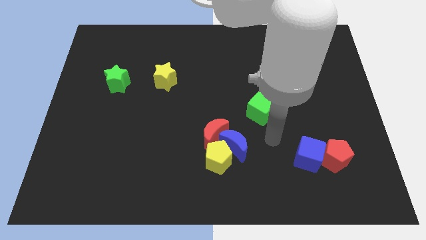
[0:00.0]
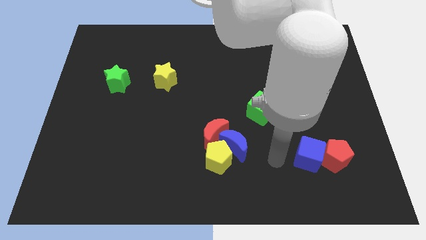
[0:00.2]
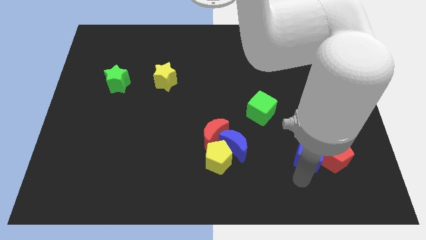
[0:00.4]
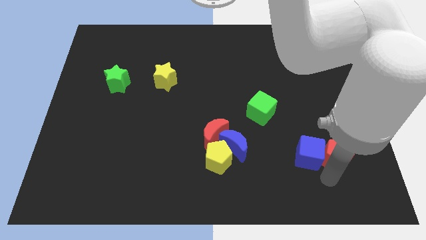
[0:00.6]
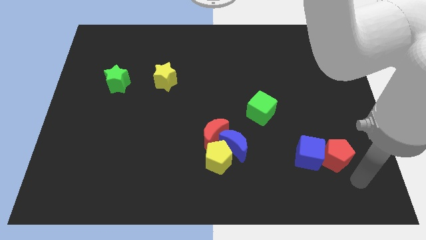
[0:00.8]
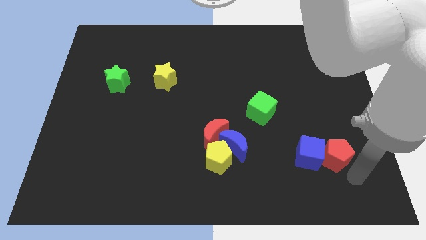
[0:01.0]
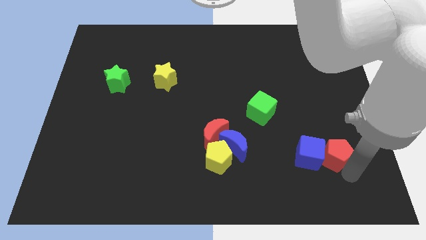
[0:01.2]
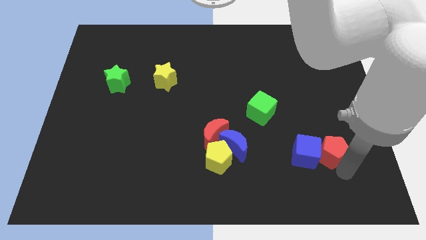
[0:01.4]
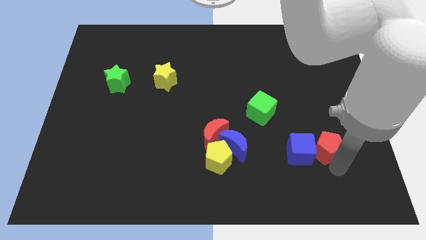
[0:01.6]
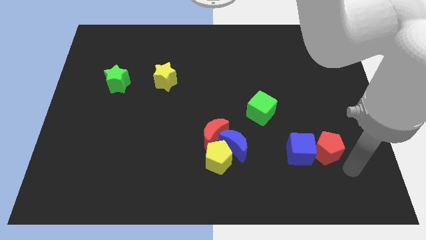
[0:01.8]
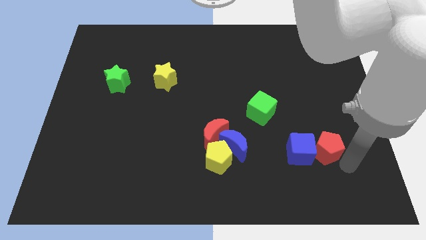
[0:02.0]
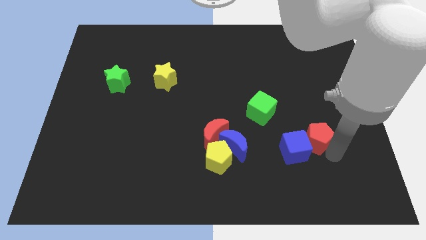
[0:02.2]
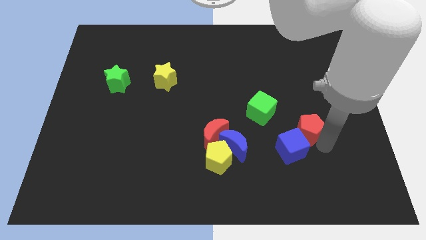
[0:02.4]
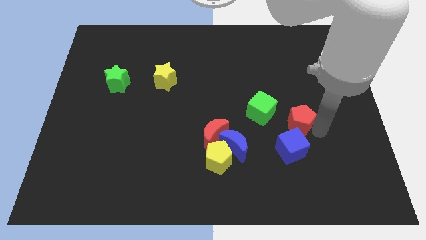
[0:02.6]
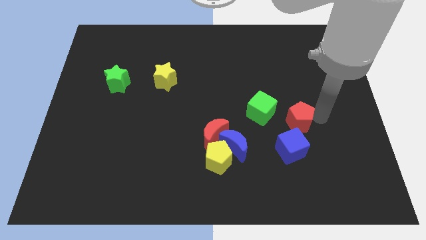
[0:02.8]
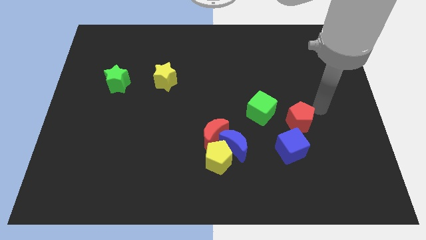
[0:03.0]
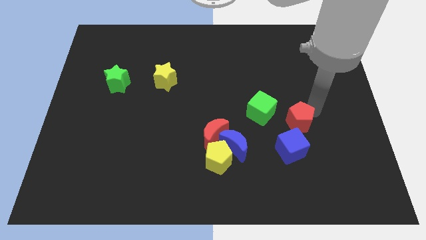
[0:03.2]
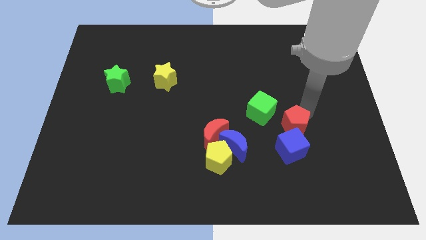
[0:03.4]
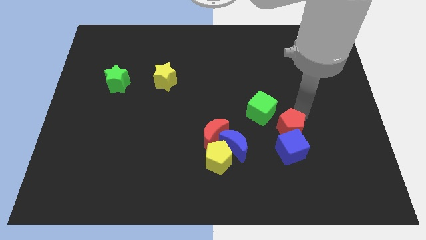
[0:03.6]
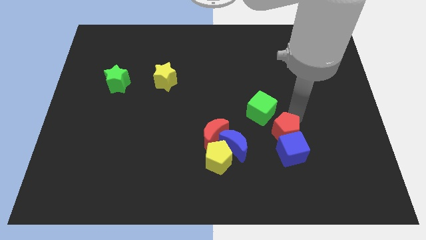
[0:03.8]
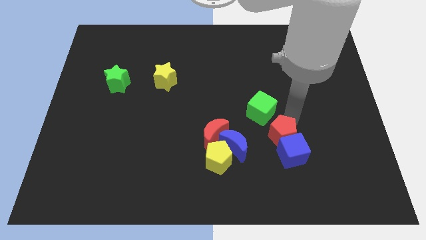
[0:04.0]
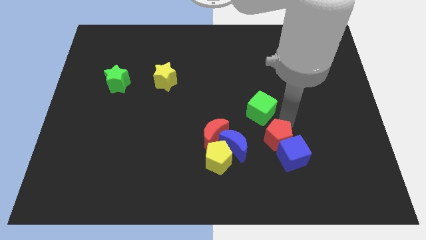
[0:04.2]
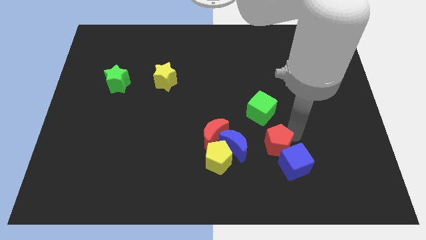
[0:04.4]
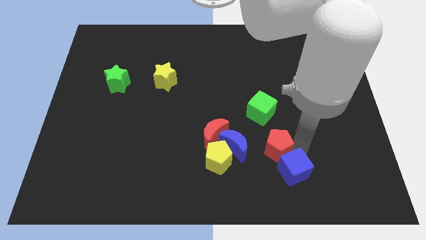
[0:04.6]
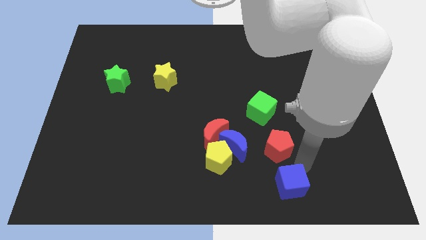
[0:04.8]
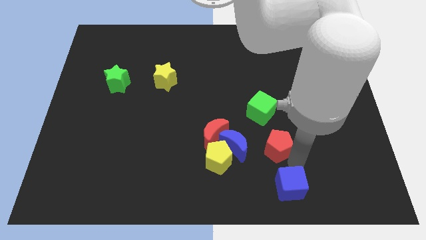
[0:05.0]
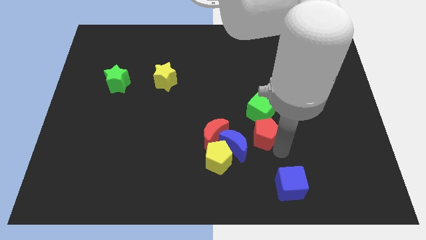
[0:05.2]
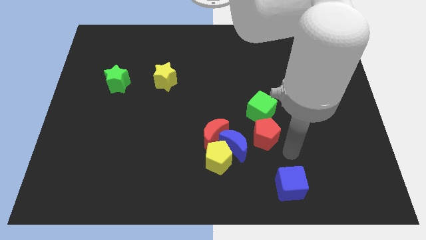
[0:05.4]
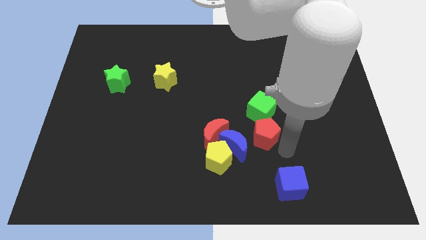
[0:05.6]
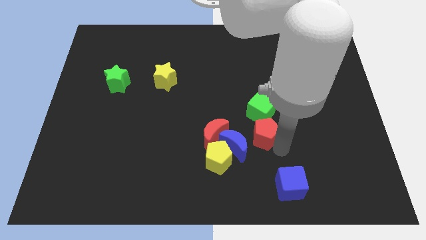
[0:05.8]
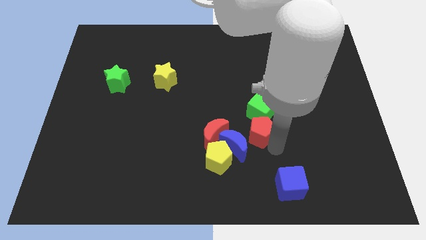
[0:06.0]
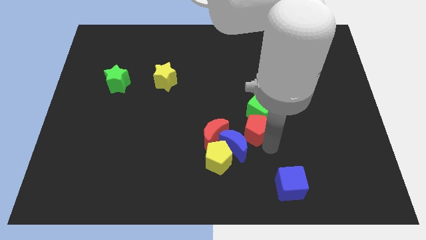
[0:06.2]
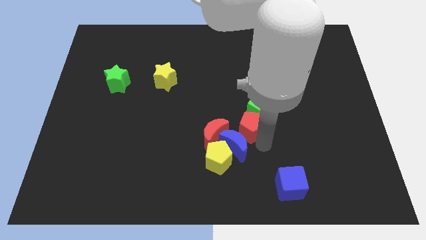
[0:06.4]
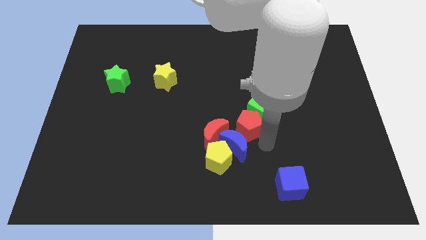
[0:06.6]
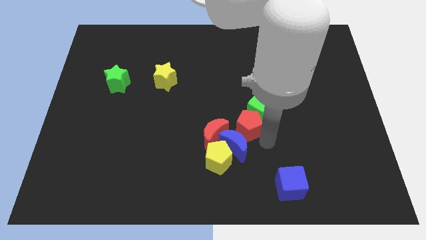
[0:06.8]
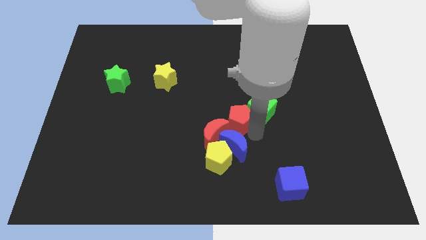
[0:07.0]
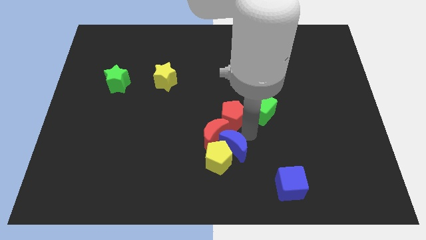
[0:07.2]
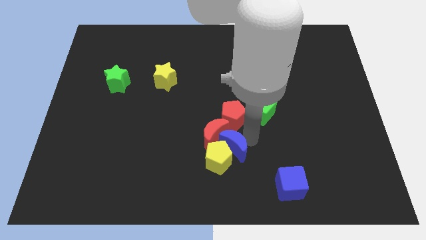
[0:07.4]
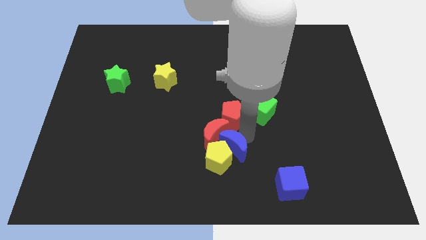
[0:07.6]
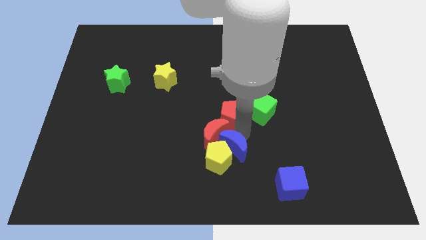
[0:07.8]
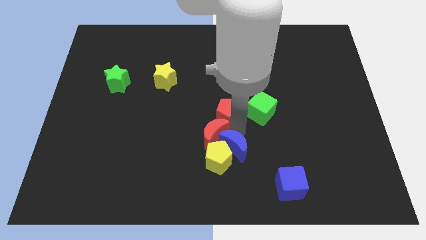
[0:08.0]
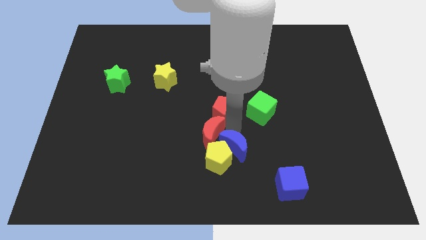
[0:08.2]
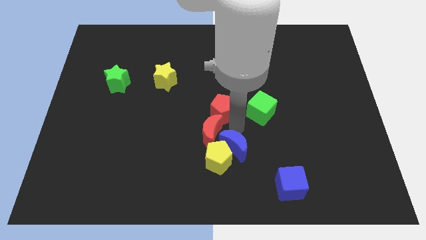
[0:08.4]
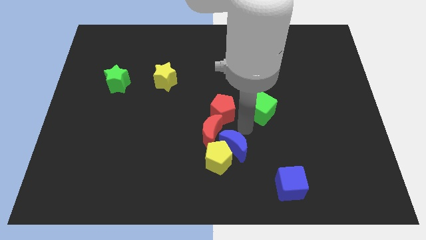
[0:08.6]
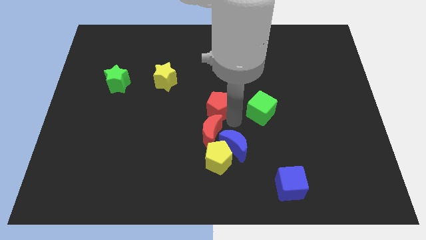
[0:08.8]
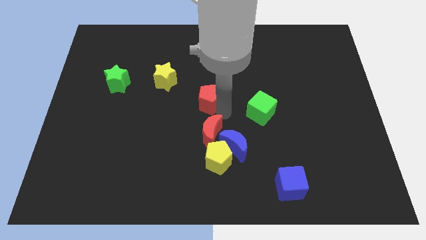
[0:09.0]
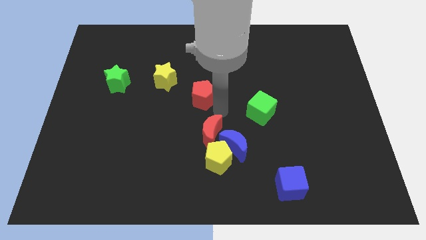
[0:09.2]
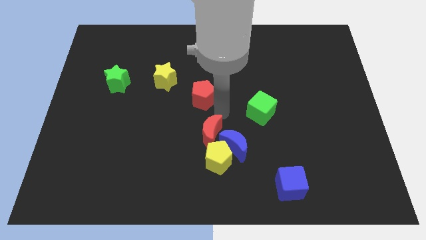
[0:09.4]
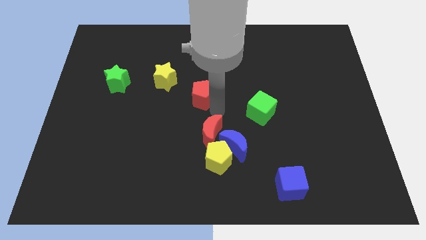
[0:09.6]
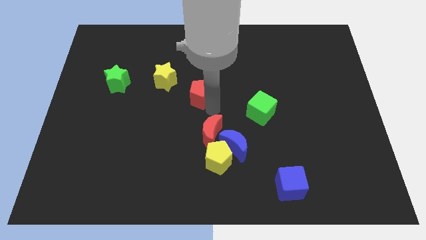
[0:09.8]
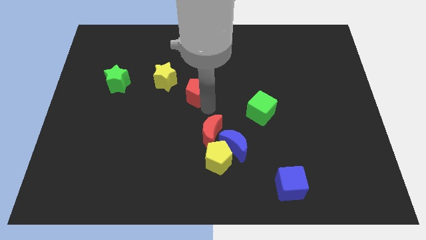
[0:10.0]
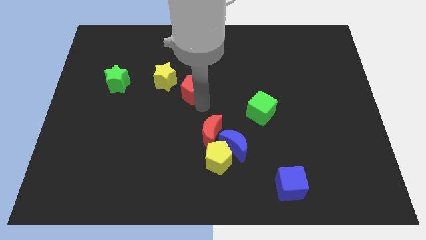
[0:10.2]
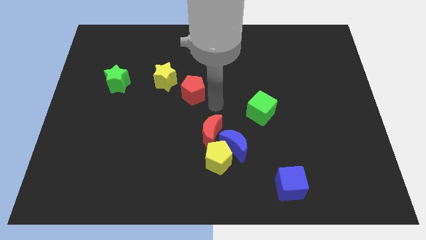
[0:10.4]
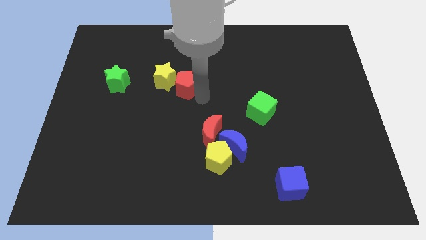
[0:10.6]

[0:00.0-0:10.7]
push the red pentagon close to the yellow star

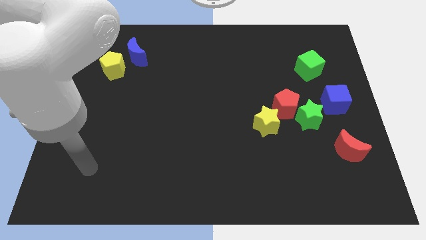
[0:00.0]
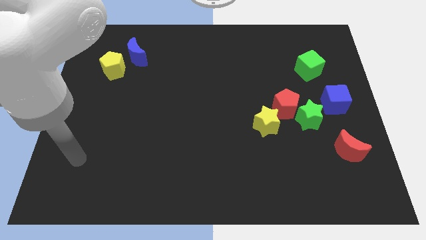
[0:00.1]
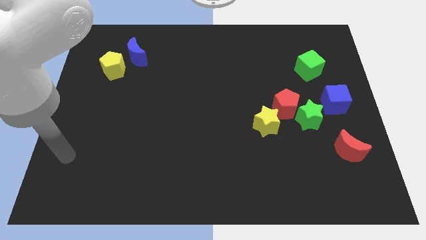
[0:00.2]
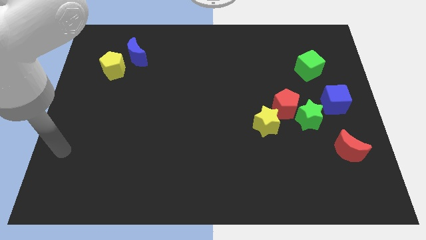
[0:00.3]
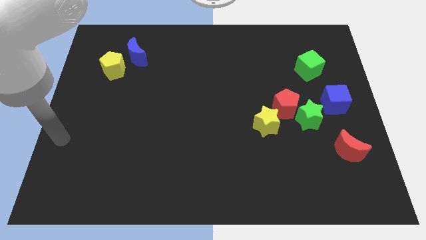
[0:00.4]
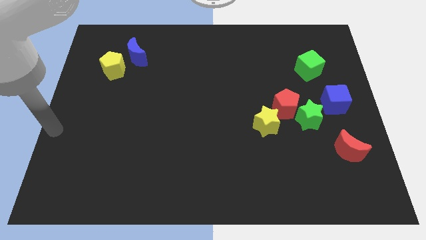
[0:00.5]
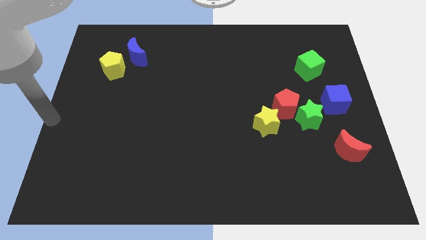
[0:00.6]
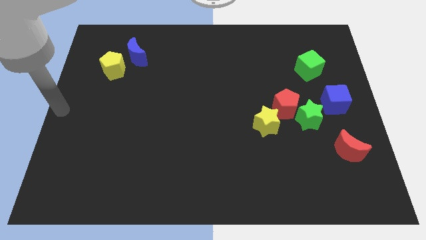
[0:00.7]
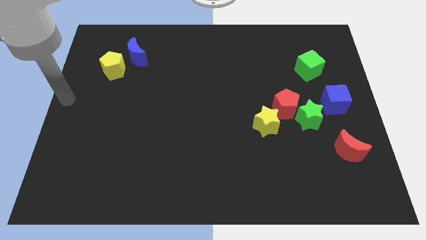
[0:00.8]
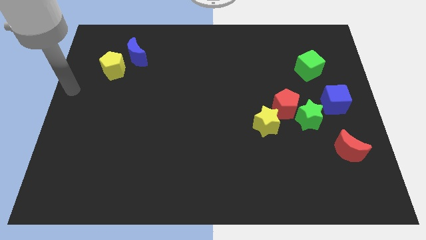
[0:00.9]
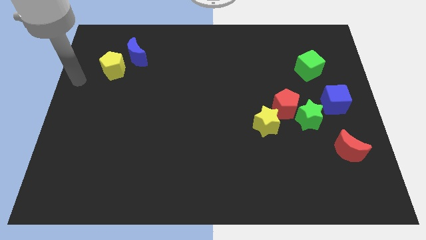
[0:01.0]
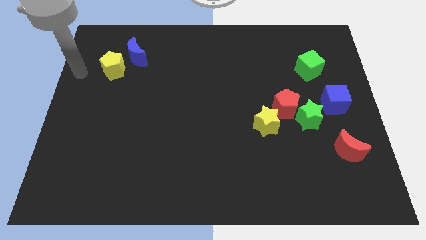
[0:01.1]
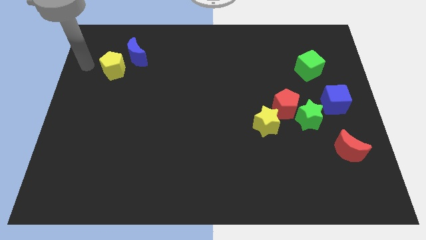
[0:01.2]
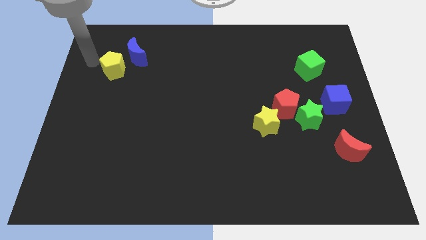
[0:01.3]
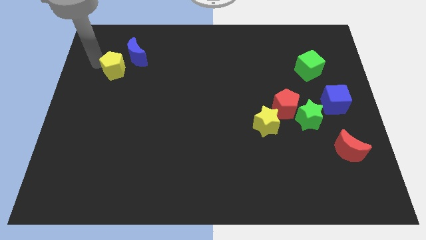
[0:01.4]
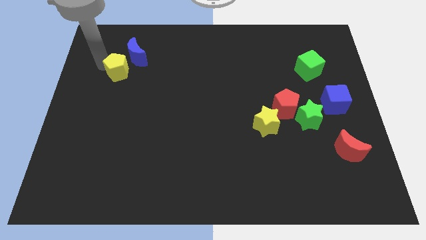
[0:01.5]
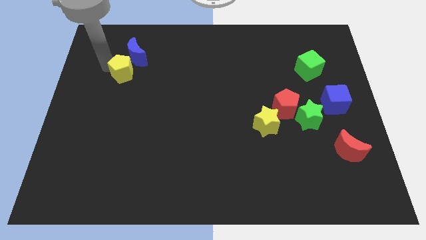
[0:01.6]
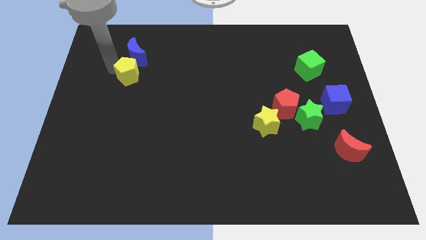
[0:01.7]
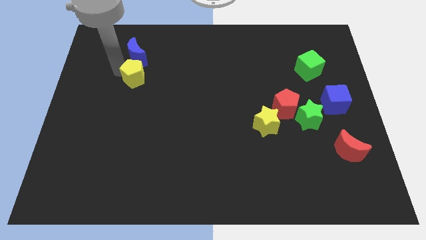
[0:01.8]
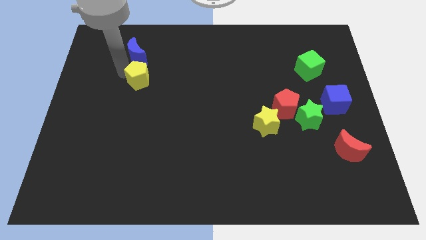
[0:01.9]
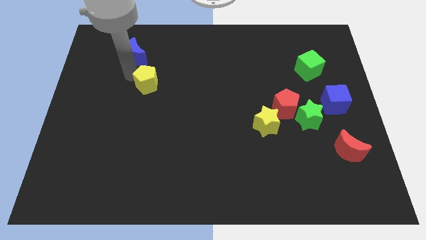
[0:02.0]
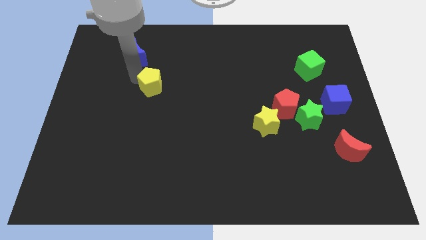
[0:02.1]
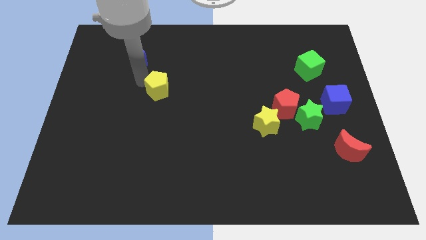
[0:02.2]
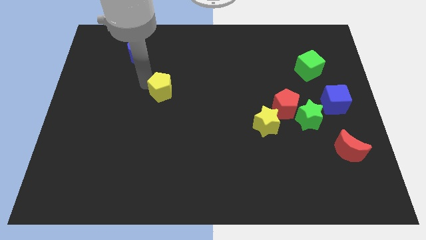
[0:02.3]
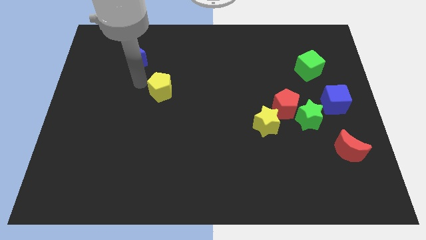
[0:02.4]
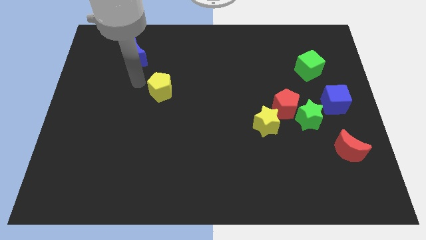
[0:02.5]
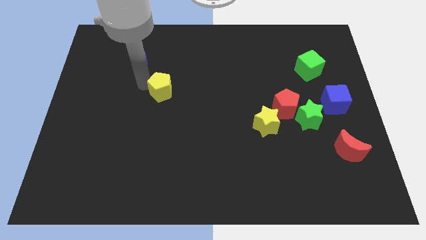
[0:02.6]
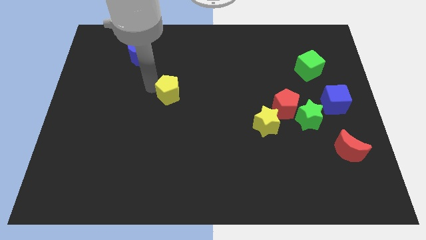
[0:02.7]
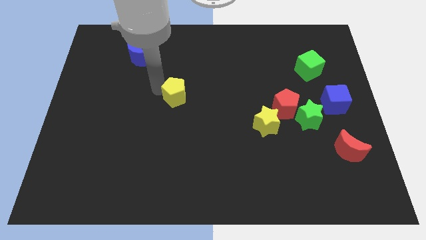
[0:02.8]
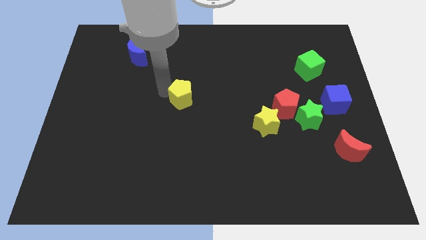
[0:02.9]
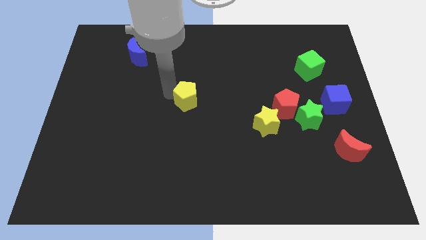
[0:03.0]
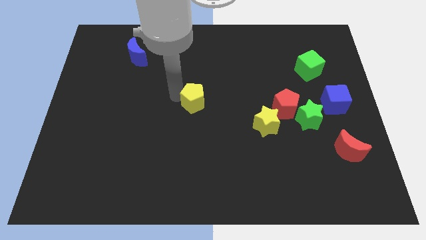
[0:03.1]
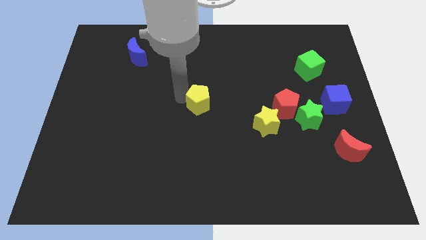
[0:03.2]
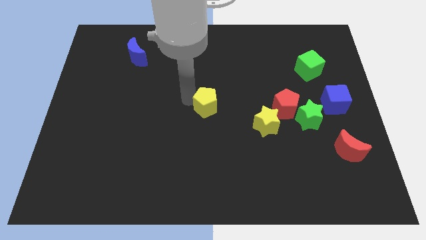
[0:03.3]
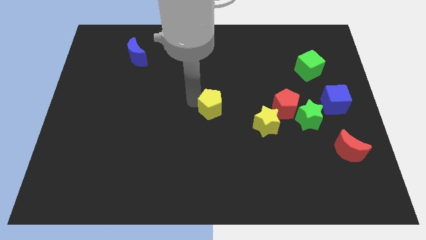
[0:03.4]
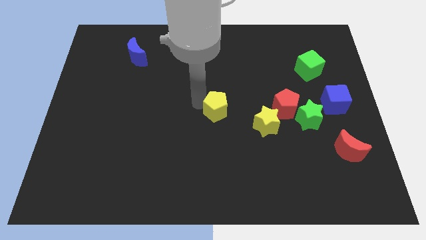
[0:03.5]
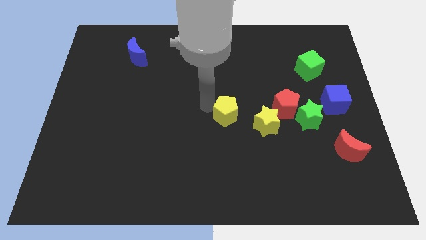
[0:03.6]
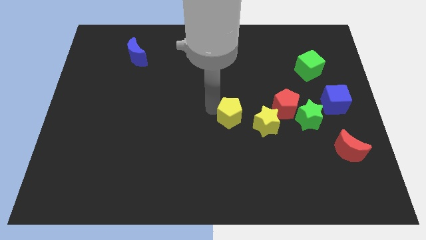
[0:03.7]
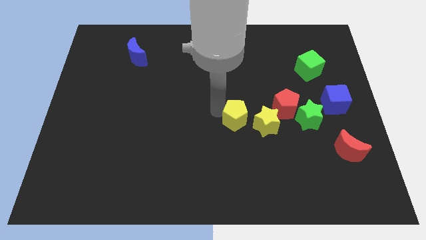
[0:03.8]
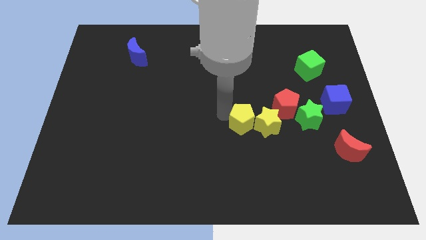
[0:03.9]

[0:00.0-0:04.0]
move the yellow pentagon close to the yellow star
